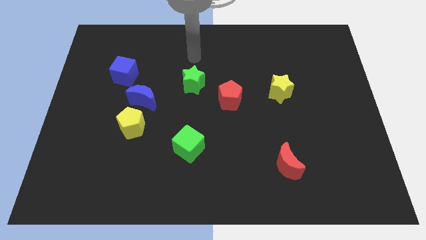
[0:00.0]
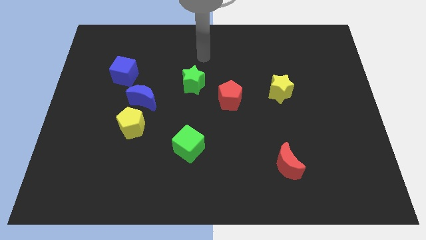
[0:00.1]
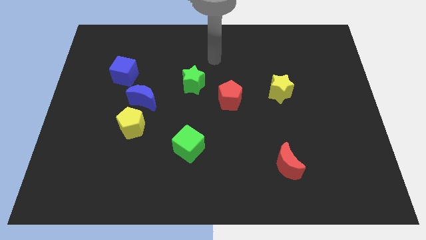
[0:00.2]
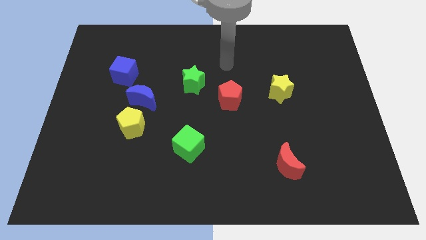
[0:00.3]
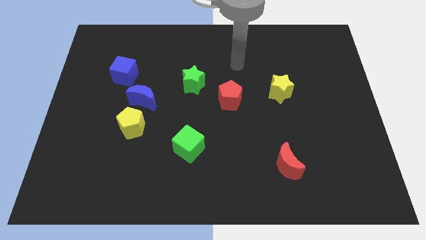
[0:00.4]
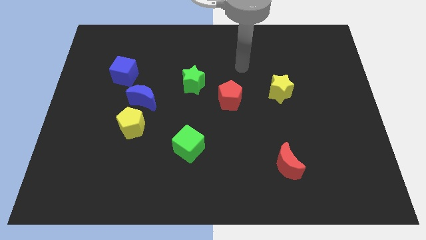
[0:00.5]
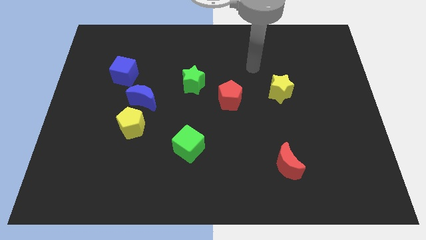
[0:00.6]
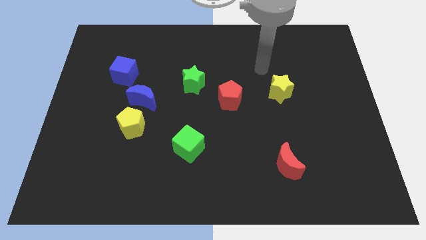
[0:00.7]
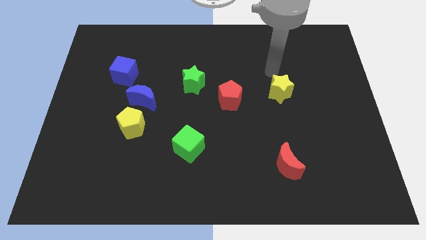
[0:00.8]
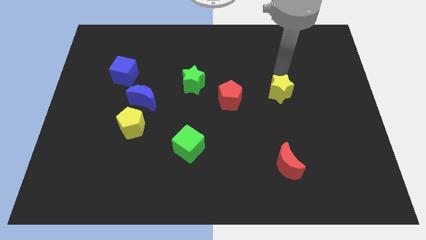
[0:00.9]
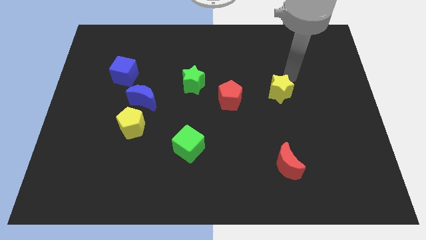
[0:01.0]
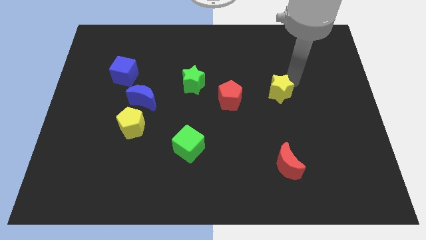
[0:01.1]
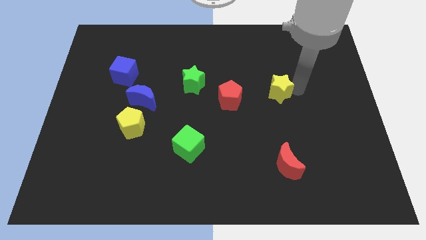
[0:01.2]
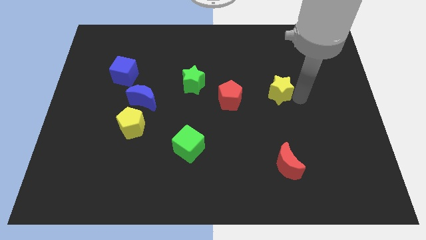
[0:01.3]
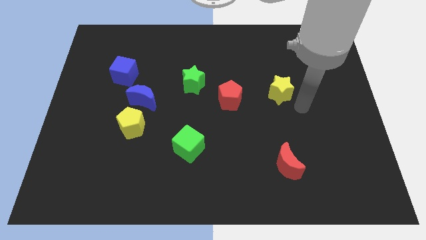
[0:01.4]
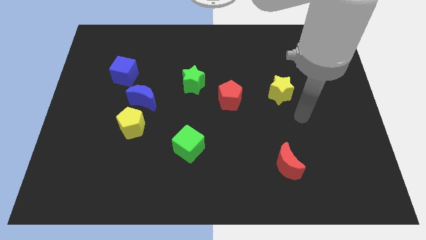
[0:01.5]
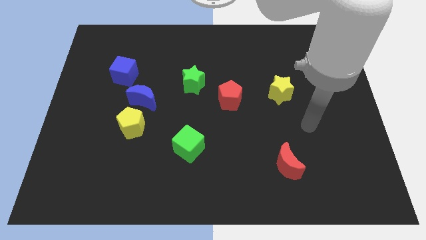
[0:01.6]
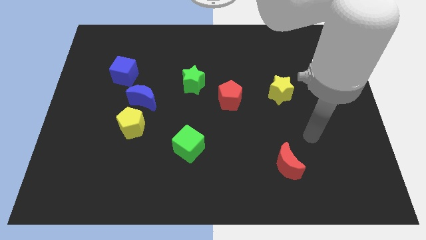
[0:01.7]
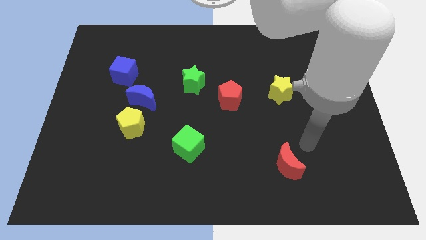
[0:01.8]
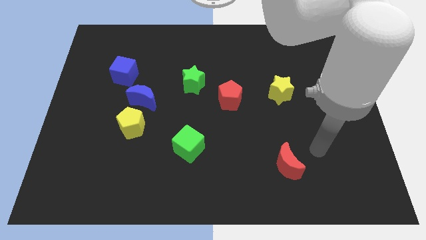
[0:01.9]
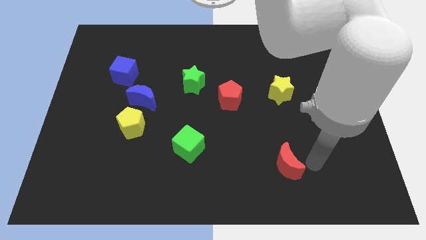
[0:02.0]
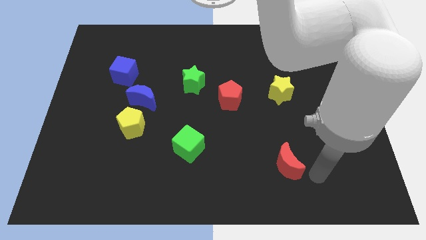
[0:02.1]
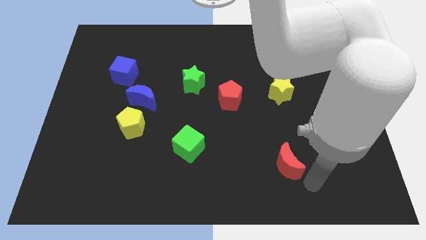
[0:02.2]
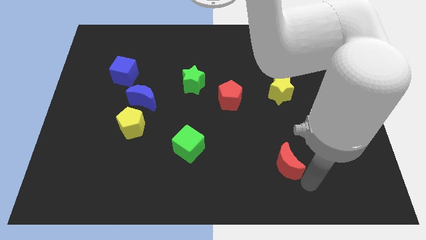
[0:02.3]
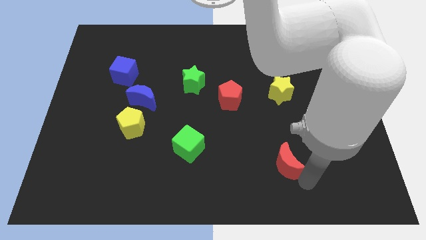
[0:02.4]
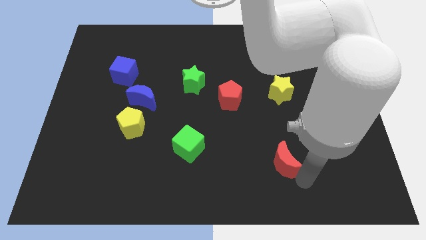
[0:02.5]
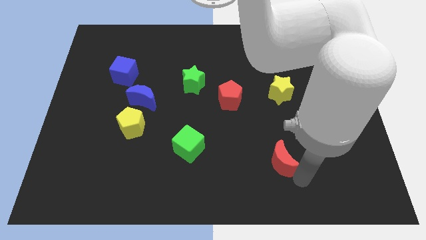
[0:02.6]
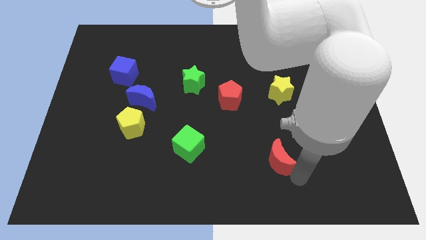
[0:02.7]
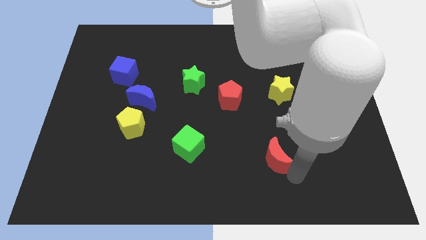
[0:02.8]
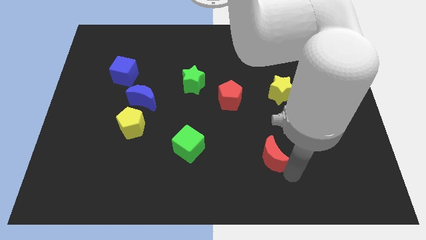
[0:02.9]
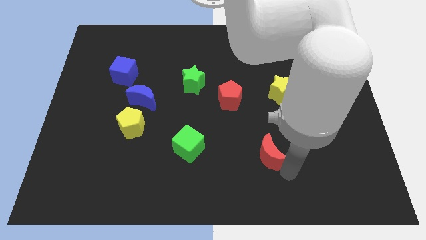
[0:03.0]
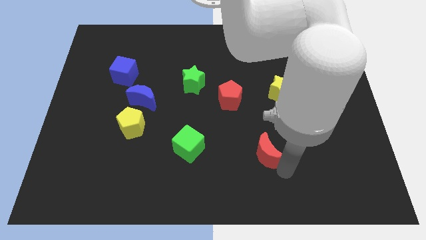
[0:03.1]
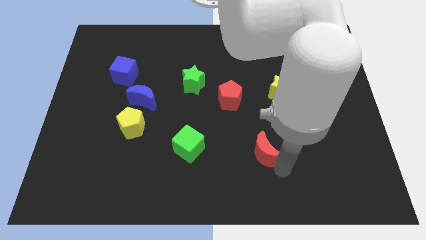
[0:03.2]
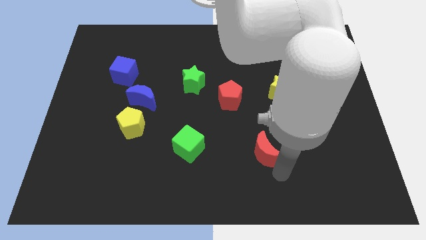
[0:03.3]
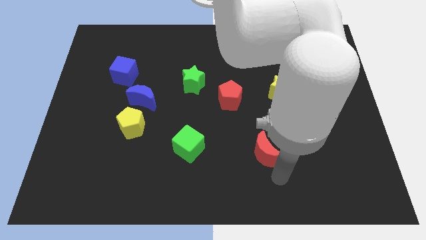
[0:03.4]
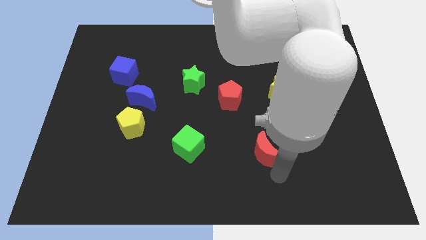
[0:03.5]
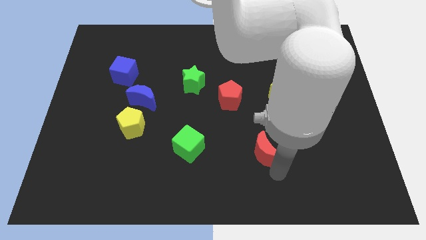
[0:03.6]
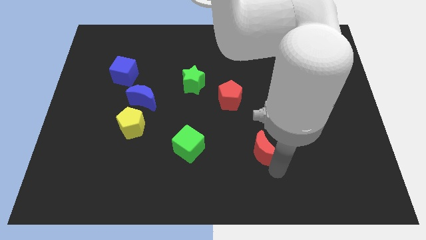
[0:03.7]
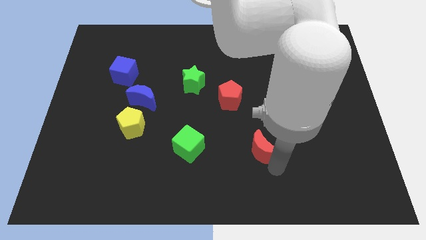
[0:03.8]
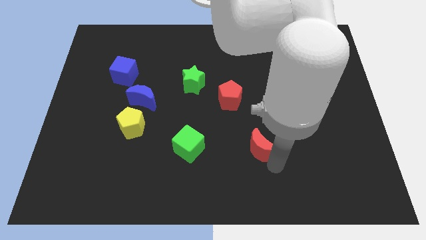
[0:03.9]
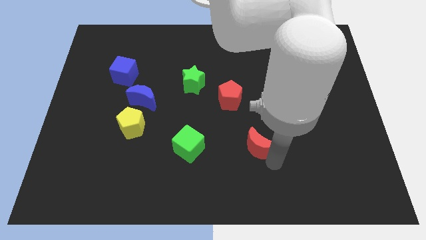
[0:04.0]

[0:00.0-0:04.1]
move the red moon slightly up and to the left diagonally

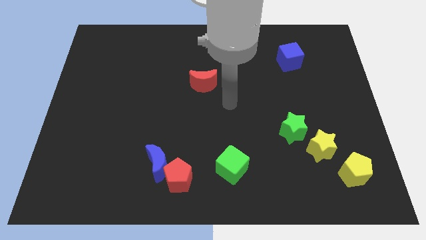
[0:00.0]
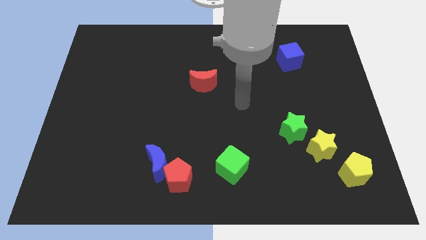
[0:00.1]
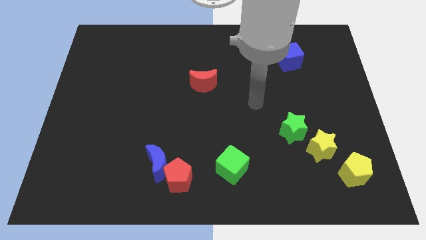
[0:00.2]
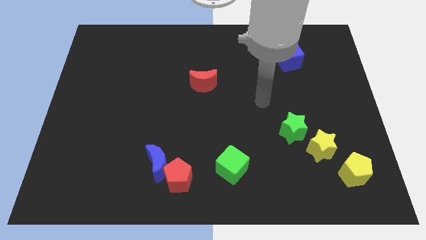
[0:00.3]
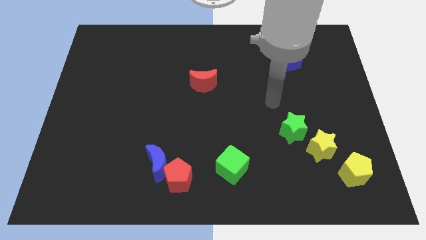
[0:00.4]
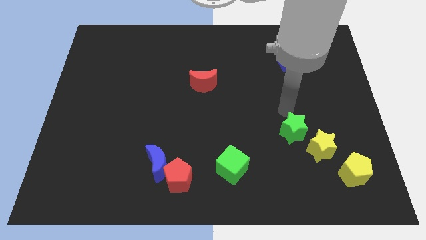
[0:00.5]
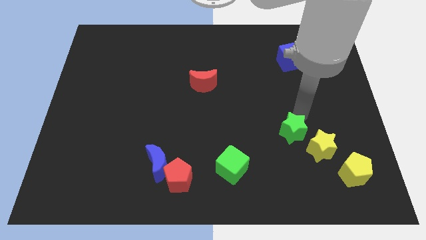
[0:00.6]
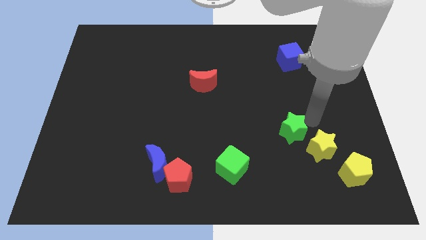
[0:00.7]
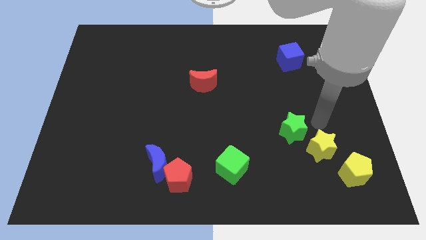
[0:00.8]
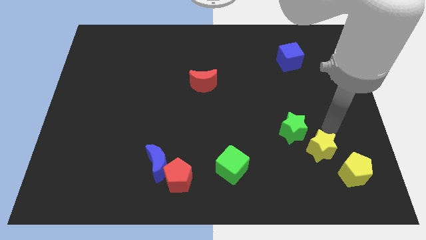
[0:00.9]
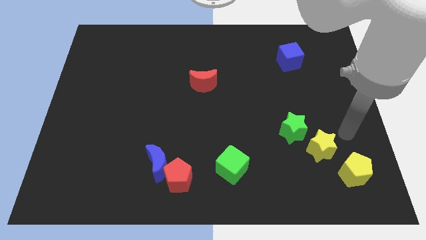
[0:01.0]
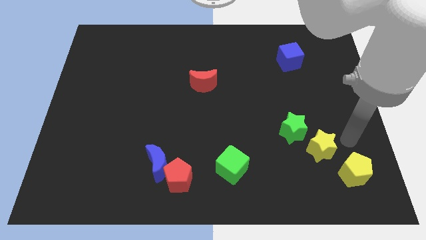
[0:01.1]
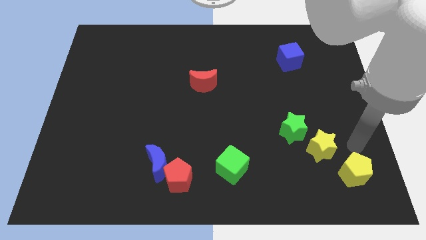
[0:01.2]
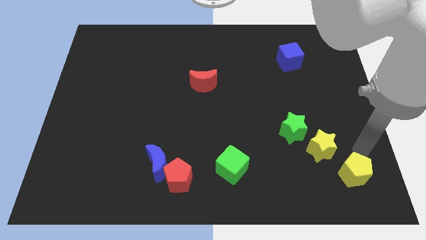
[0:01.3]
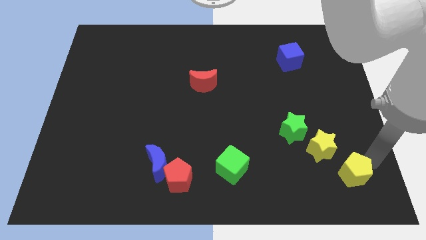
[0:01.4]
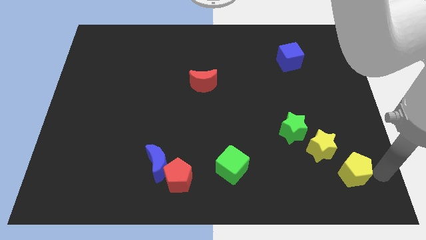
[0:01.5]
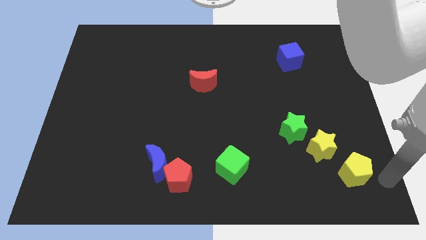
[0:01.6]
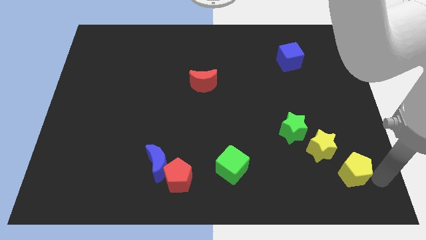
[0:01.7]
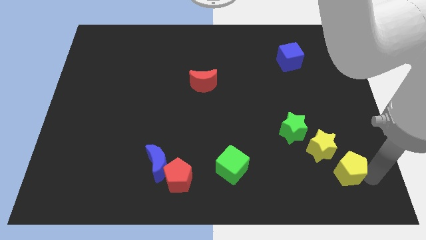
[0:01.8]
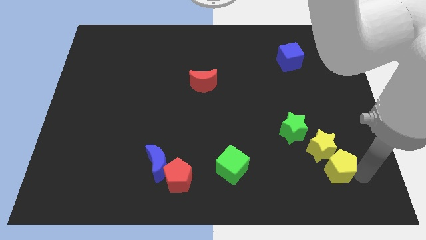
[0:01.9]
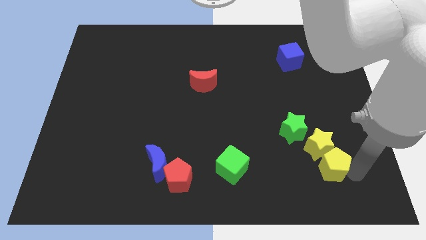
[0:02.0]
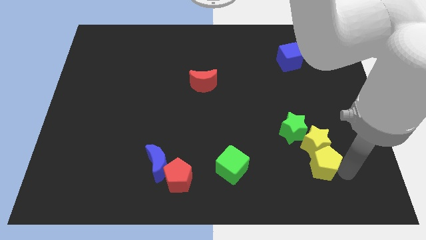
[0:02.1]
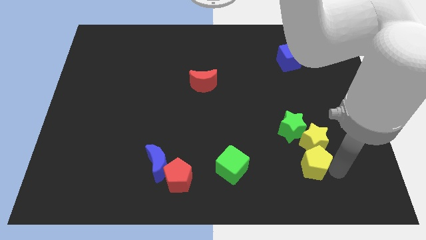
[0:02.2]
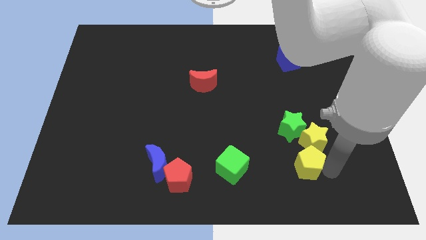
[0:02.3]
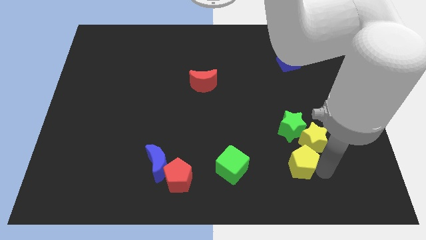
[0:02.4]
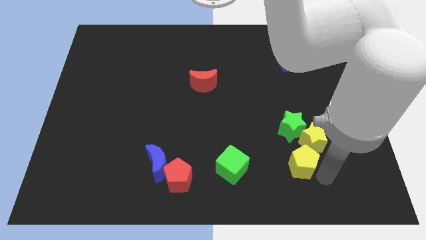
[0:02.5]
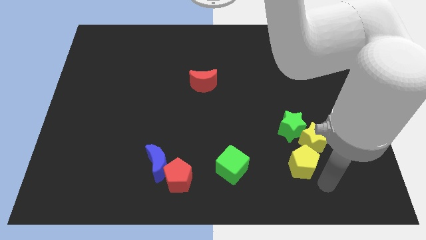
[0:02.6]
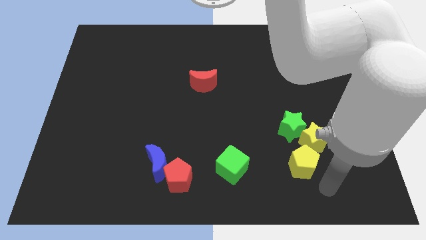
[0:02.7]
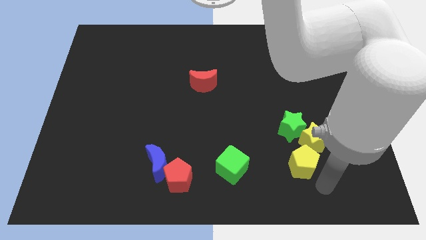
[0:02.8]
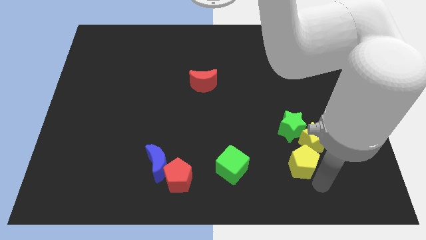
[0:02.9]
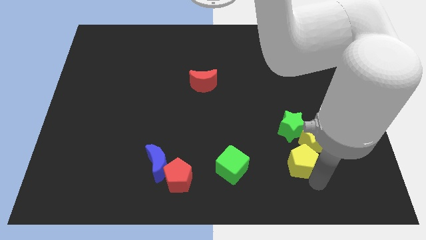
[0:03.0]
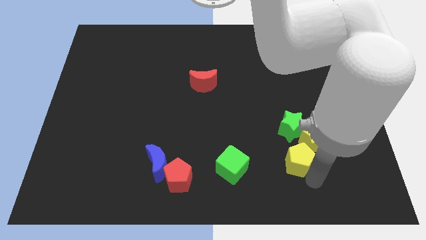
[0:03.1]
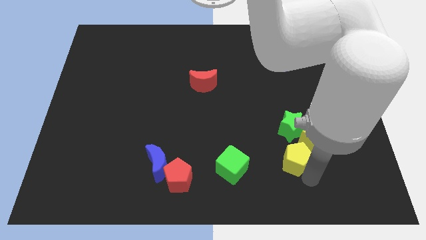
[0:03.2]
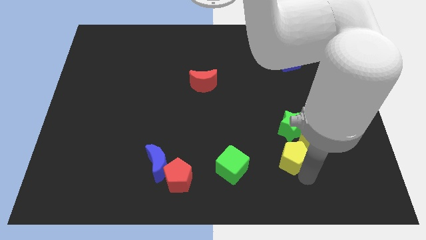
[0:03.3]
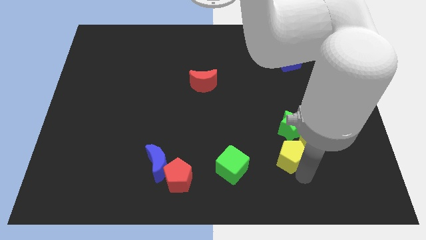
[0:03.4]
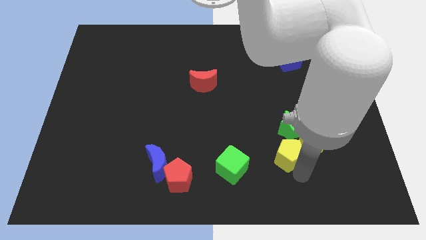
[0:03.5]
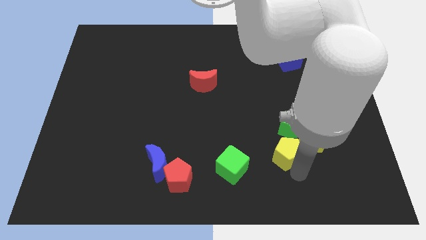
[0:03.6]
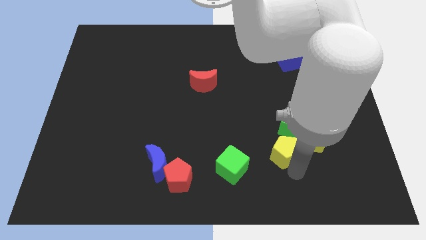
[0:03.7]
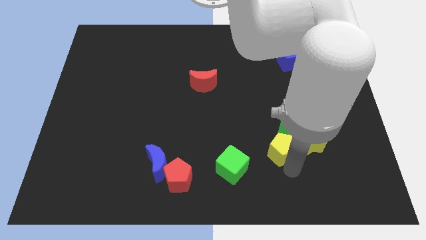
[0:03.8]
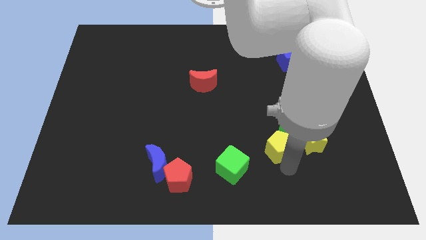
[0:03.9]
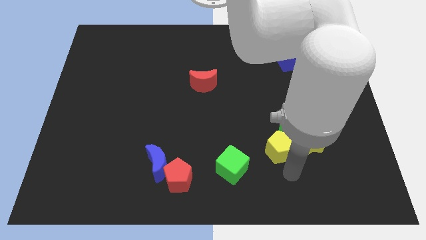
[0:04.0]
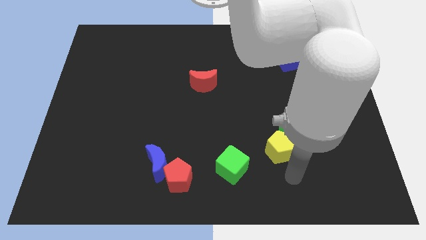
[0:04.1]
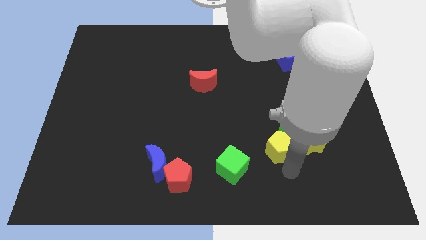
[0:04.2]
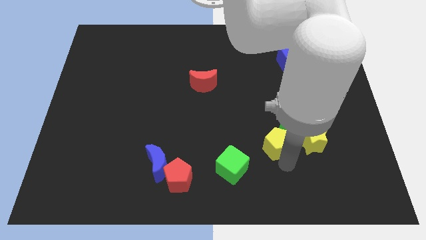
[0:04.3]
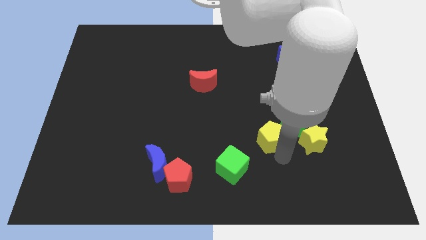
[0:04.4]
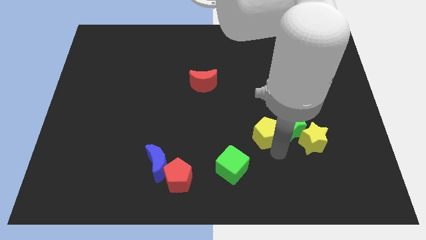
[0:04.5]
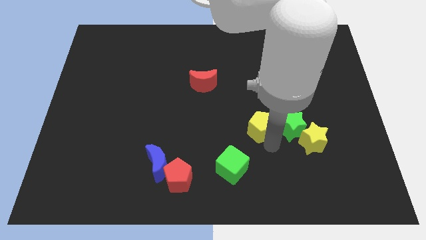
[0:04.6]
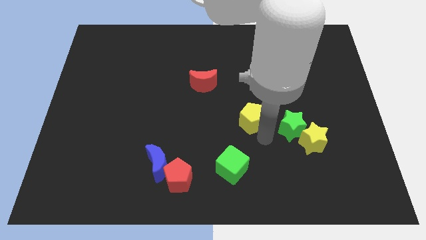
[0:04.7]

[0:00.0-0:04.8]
slide the yellow pentagon diagonally up and to the left
